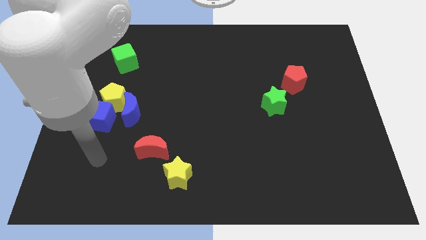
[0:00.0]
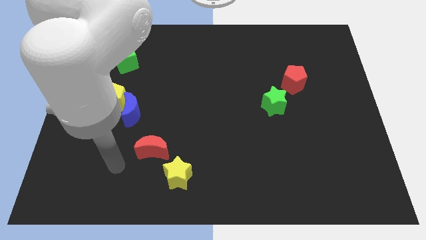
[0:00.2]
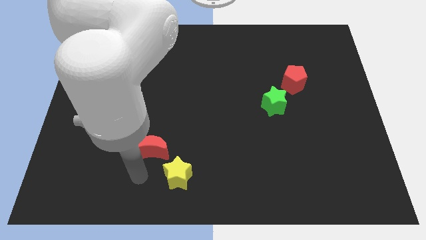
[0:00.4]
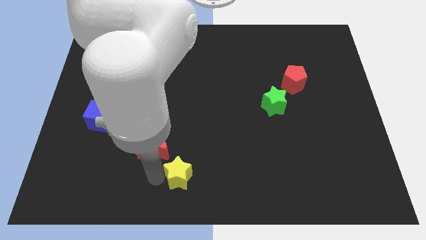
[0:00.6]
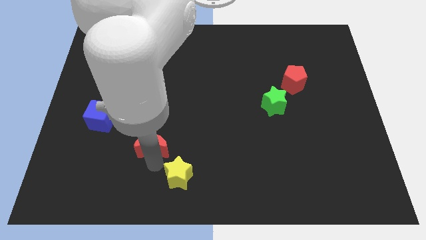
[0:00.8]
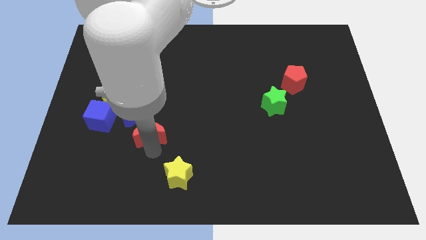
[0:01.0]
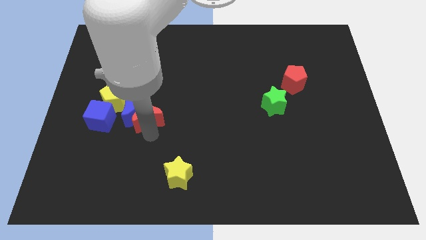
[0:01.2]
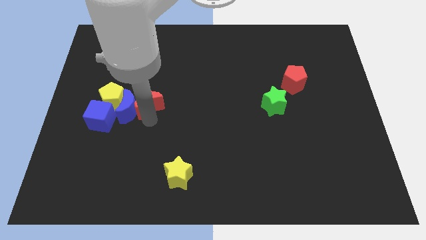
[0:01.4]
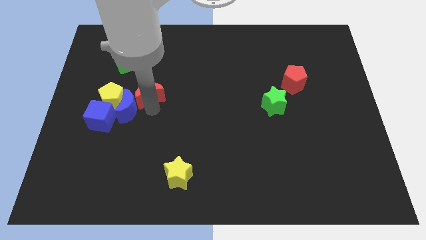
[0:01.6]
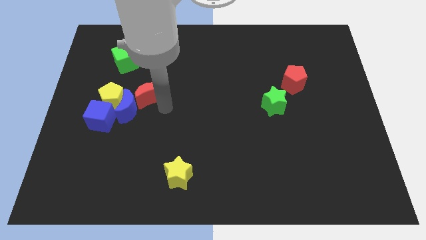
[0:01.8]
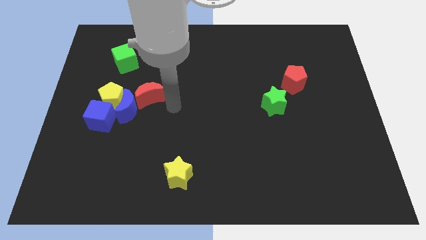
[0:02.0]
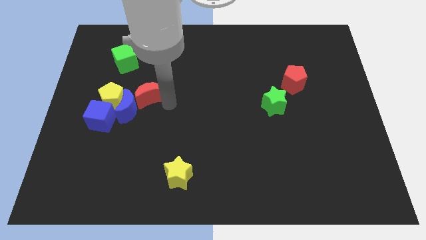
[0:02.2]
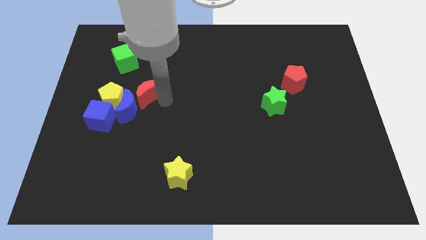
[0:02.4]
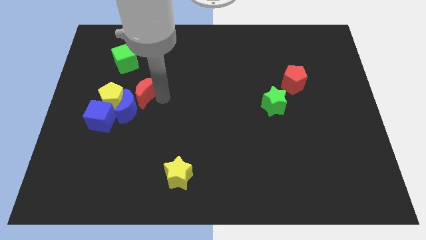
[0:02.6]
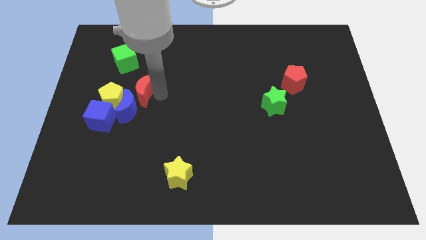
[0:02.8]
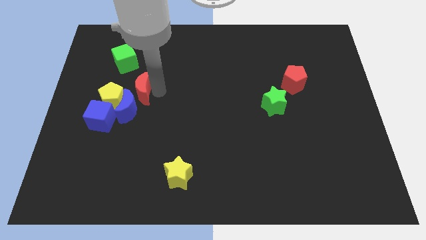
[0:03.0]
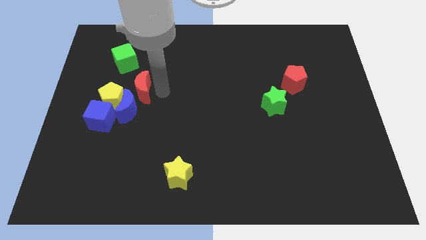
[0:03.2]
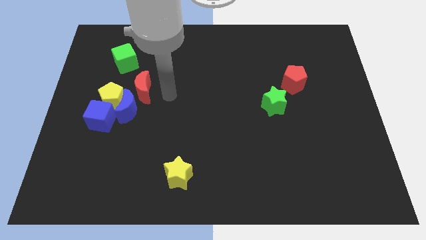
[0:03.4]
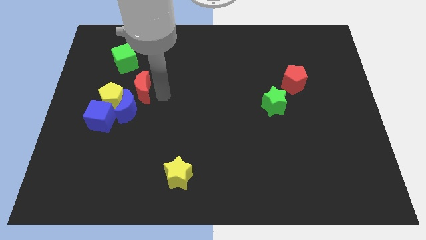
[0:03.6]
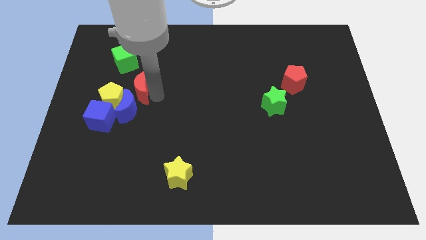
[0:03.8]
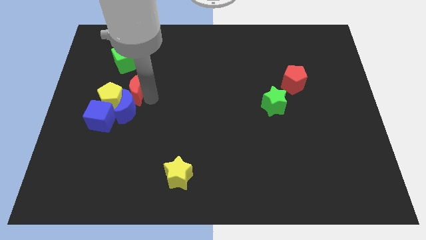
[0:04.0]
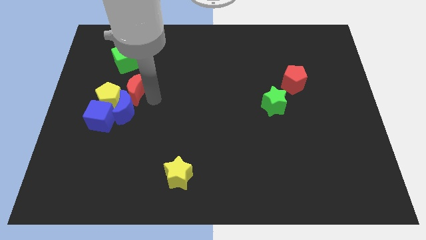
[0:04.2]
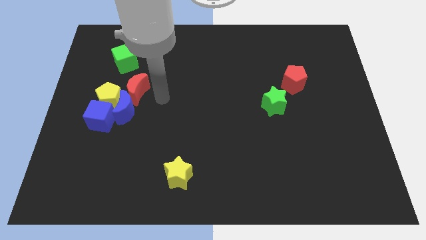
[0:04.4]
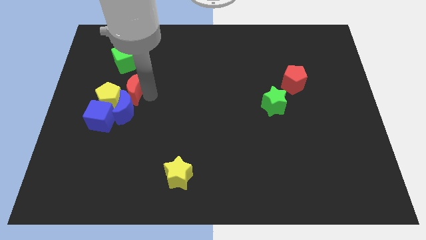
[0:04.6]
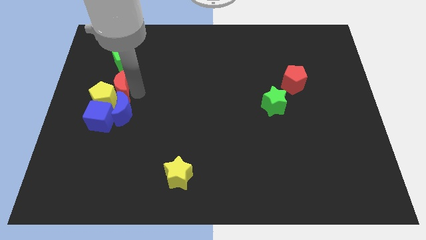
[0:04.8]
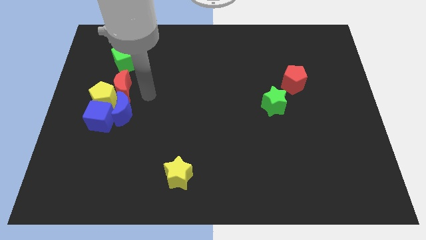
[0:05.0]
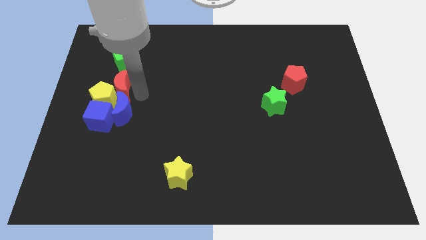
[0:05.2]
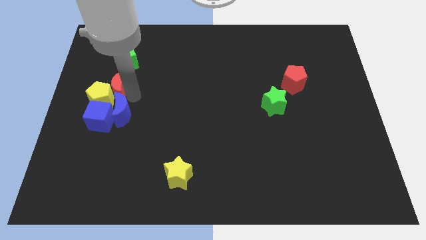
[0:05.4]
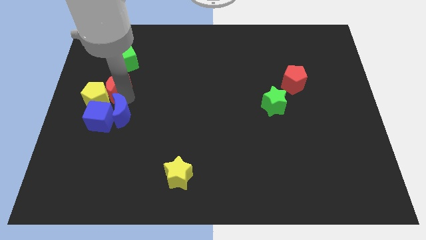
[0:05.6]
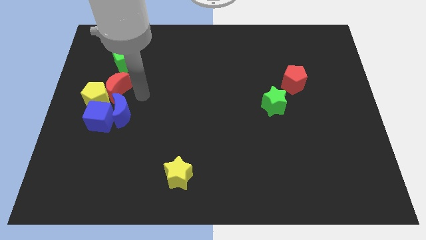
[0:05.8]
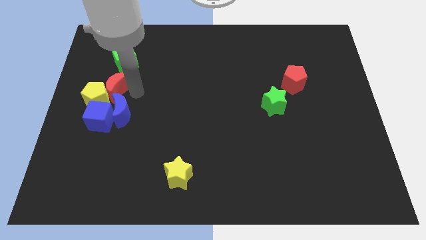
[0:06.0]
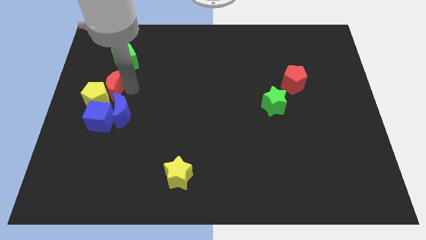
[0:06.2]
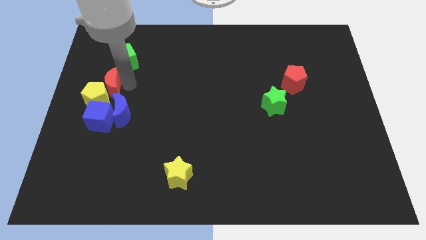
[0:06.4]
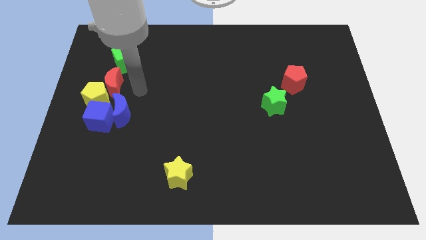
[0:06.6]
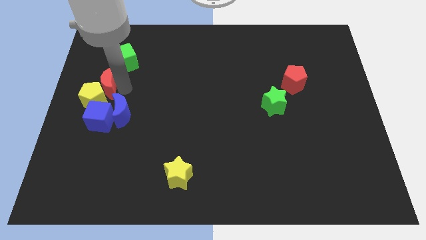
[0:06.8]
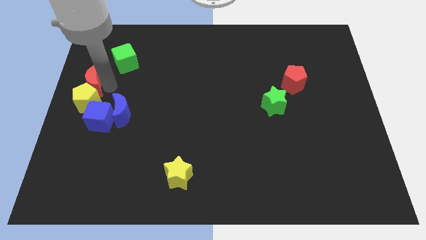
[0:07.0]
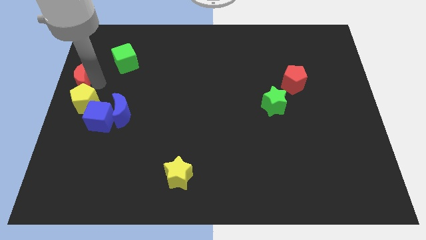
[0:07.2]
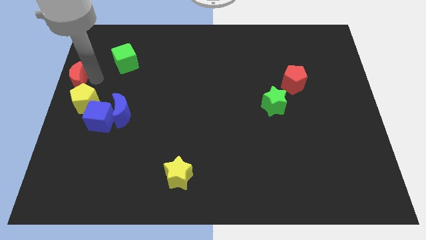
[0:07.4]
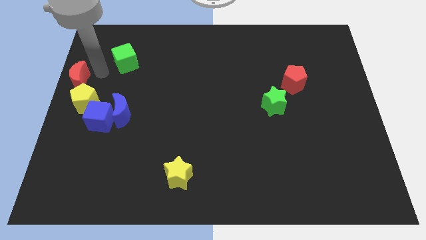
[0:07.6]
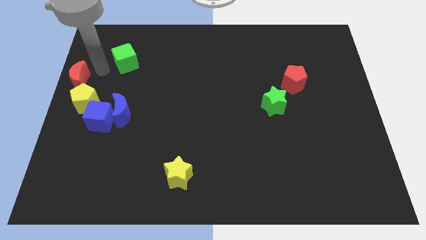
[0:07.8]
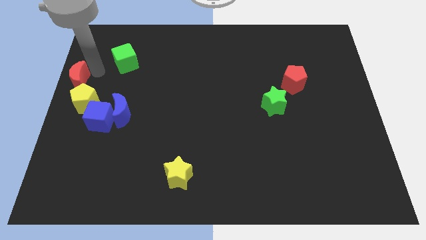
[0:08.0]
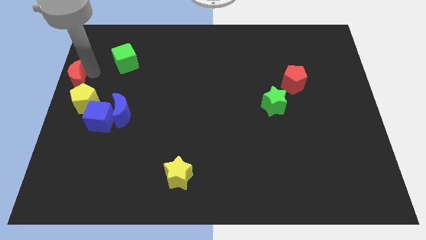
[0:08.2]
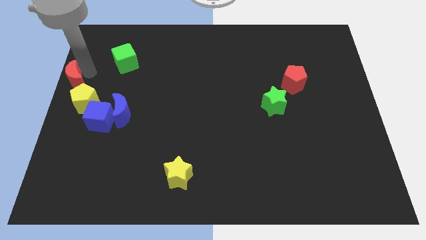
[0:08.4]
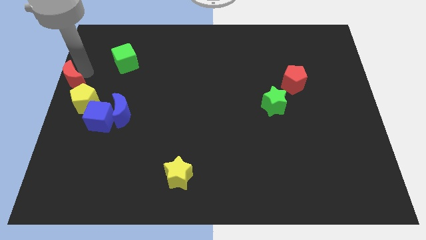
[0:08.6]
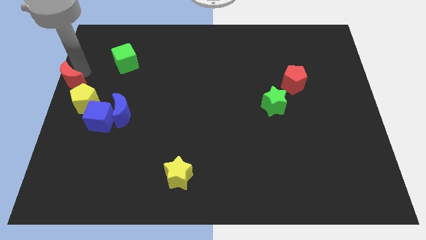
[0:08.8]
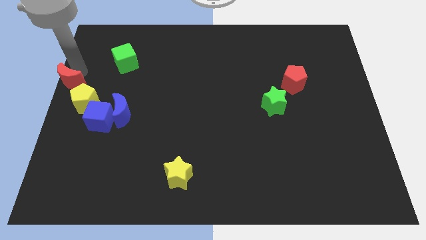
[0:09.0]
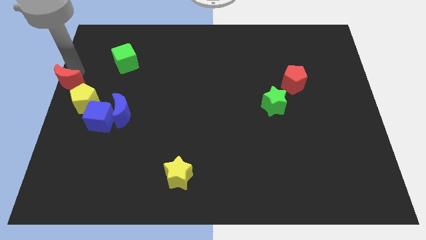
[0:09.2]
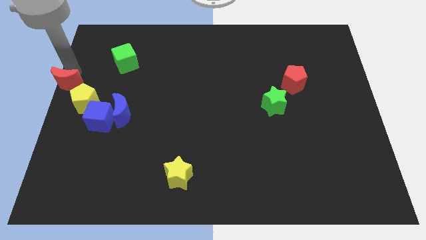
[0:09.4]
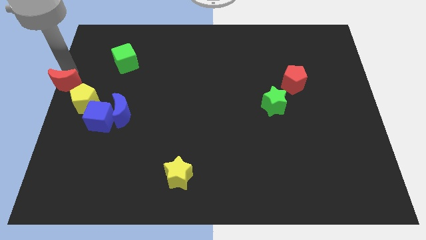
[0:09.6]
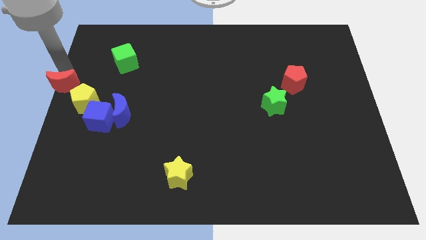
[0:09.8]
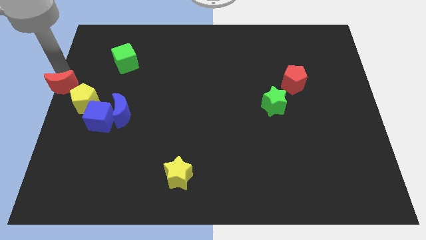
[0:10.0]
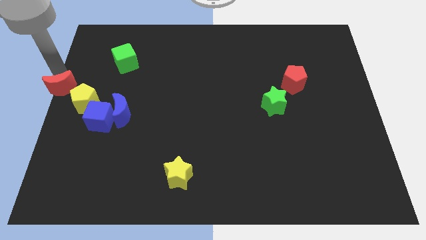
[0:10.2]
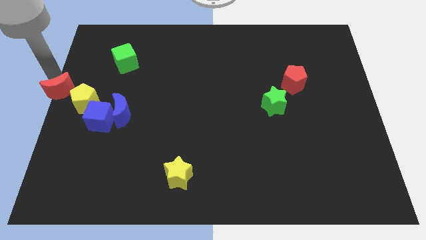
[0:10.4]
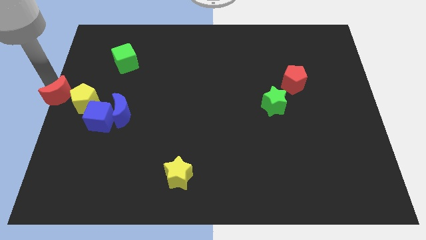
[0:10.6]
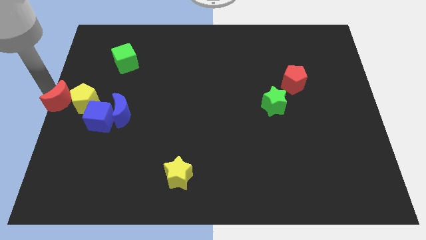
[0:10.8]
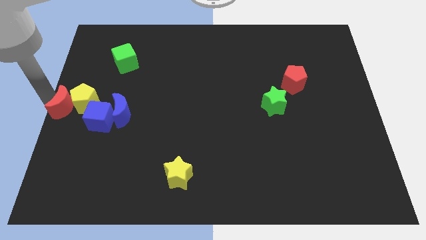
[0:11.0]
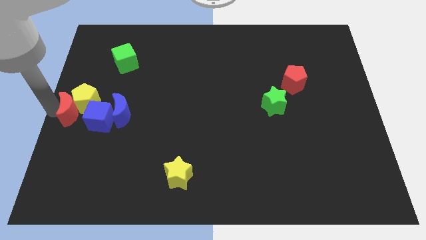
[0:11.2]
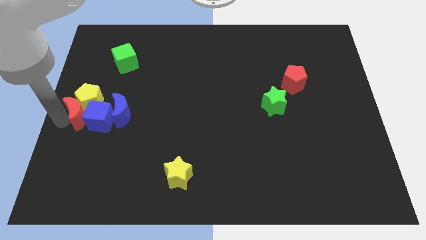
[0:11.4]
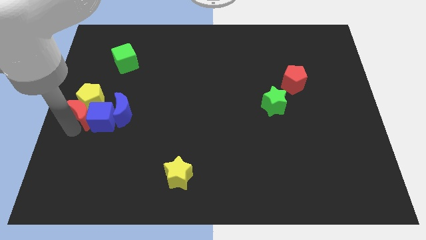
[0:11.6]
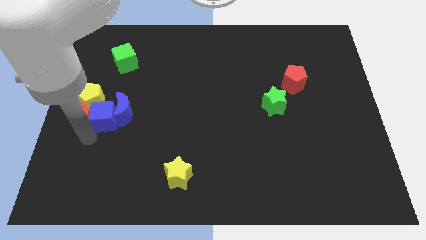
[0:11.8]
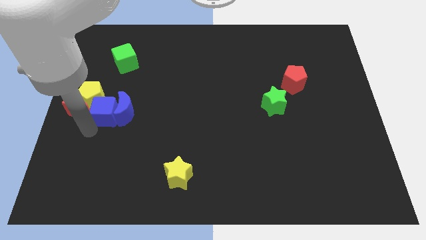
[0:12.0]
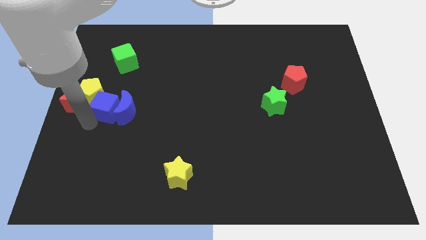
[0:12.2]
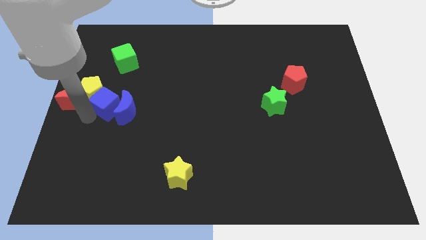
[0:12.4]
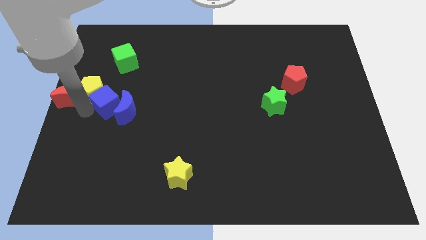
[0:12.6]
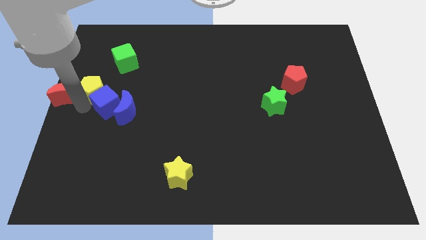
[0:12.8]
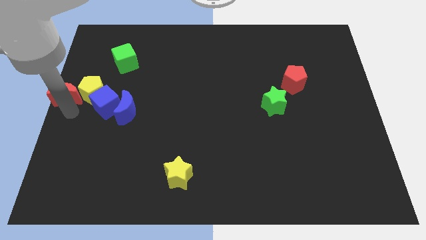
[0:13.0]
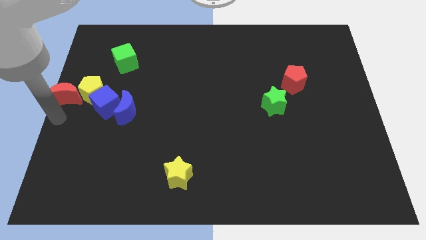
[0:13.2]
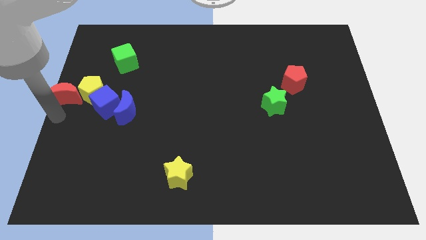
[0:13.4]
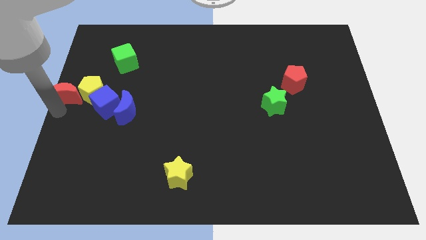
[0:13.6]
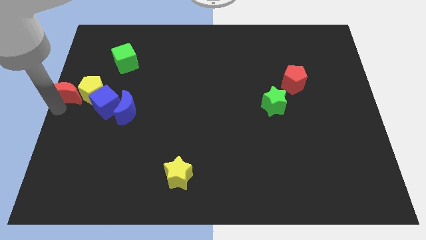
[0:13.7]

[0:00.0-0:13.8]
put the red moon to the top left of the yellow pentagon

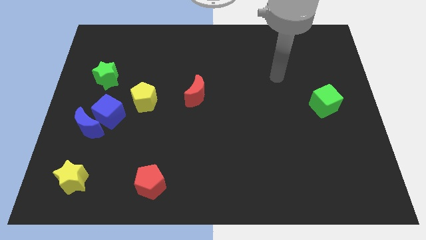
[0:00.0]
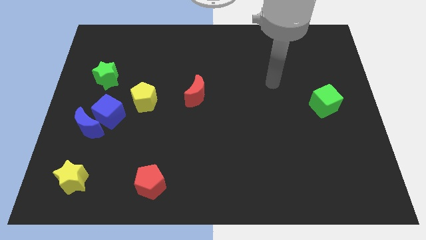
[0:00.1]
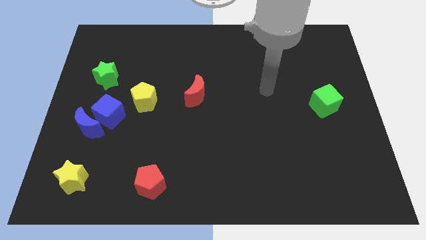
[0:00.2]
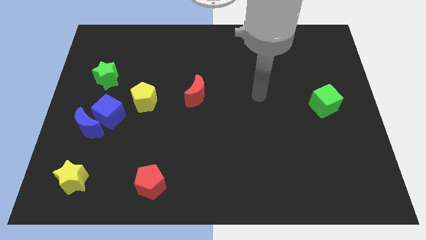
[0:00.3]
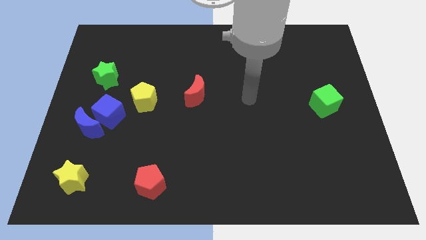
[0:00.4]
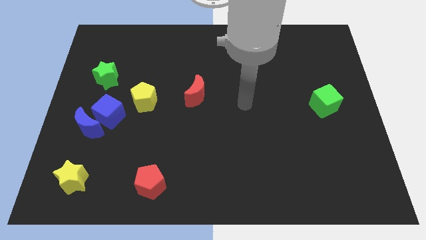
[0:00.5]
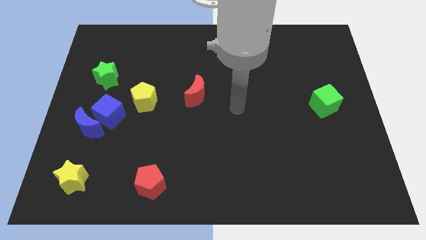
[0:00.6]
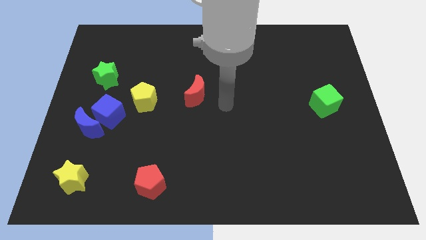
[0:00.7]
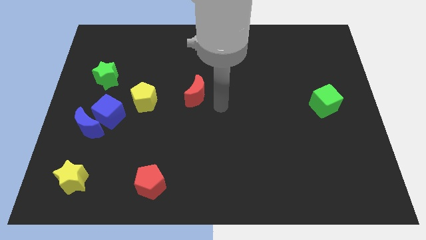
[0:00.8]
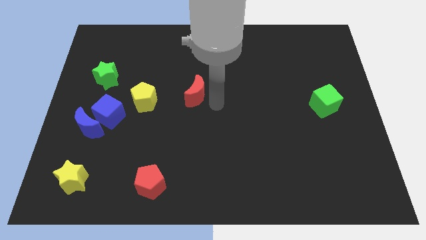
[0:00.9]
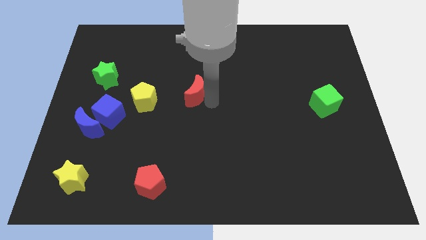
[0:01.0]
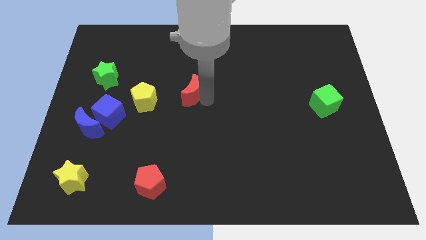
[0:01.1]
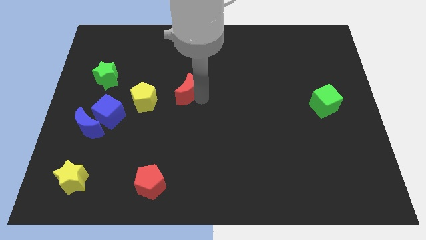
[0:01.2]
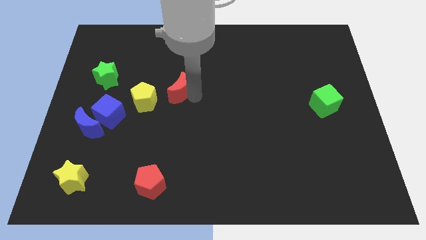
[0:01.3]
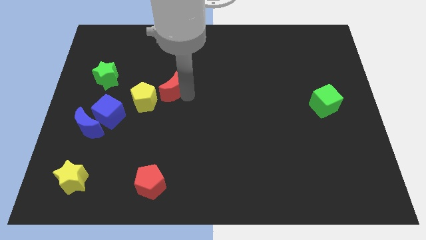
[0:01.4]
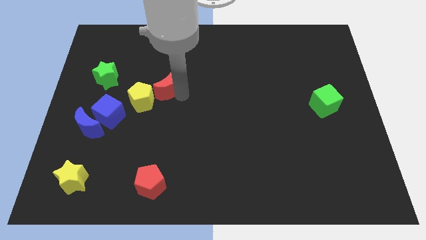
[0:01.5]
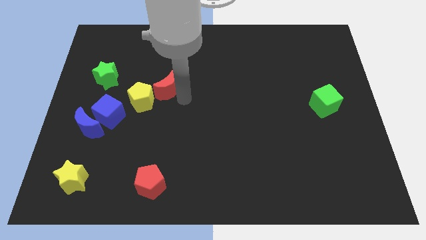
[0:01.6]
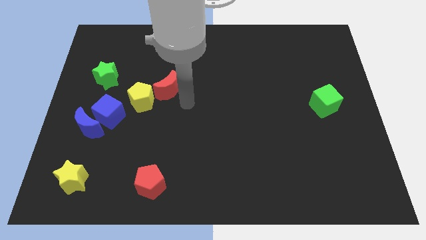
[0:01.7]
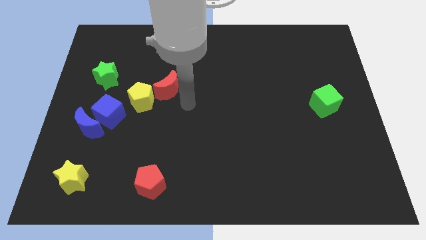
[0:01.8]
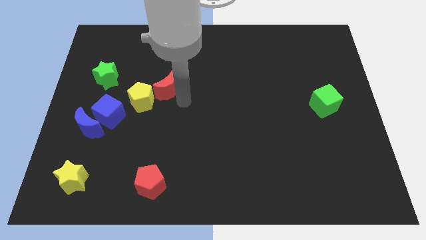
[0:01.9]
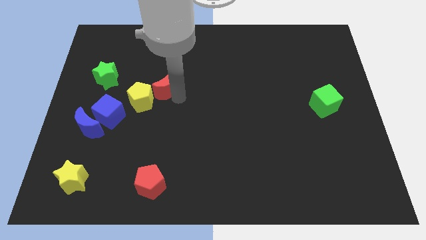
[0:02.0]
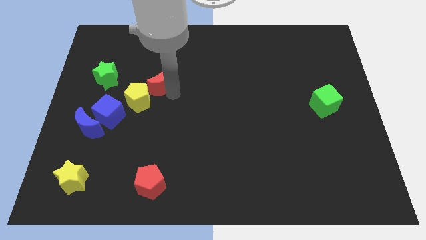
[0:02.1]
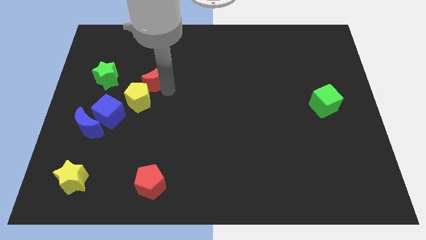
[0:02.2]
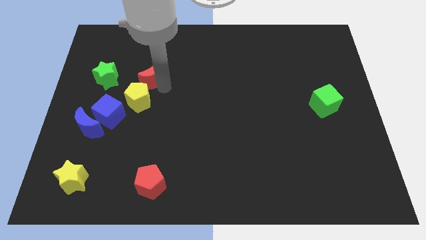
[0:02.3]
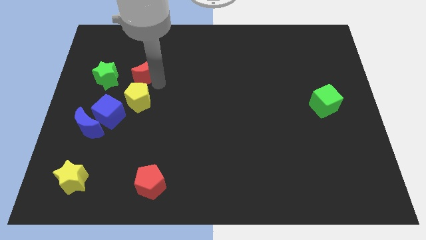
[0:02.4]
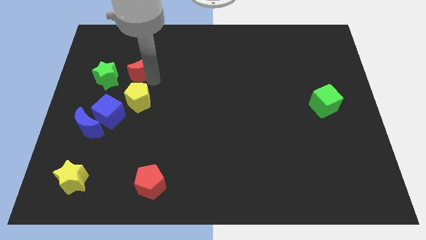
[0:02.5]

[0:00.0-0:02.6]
push the red moon to the top right side of the green star
